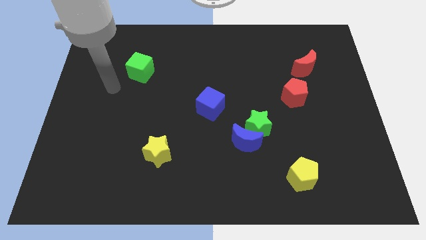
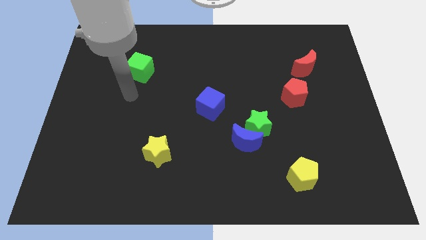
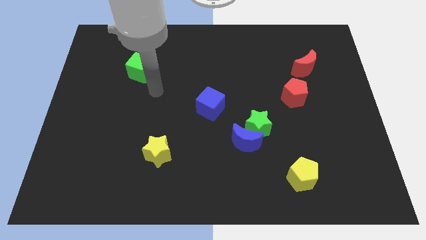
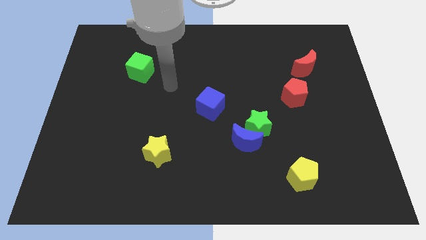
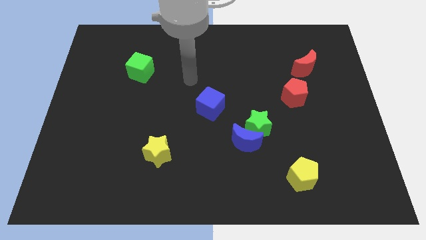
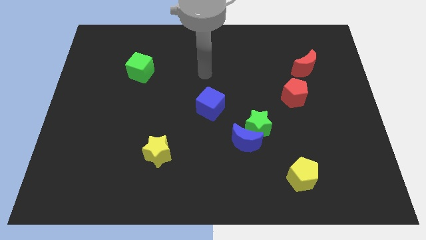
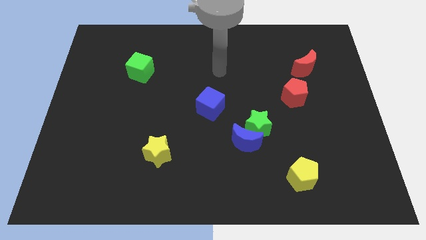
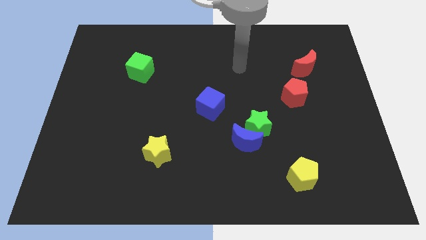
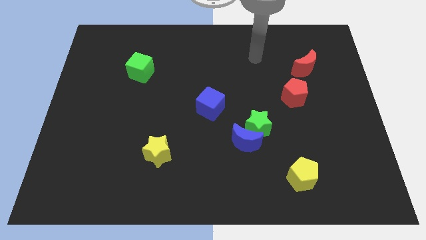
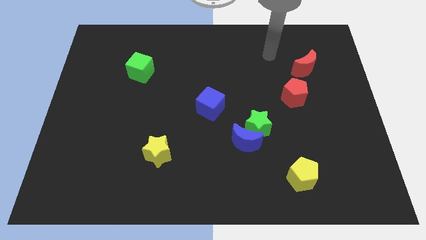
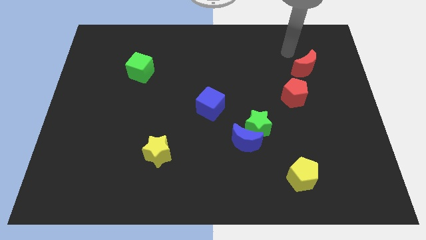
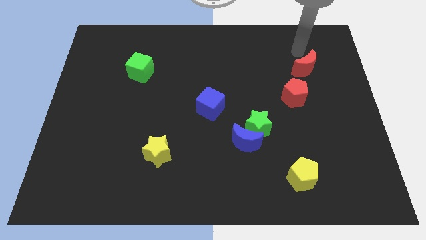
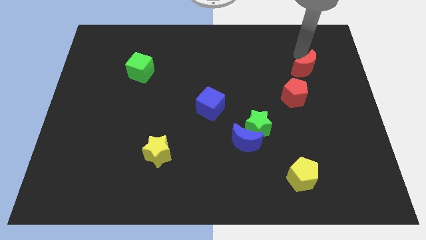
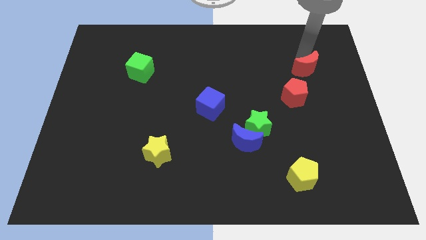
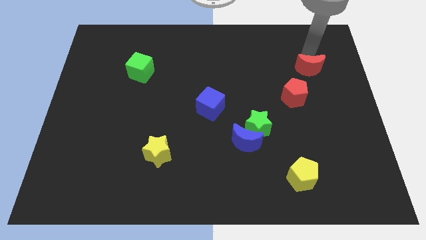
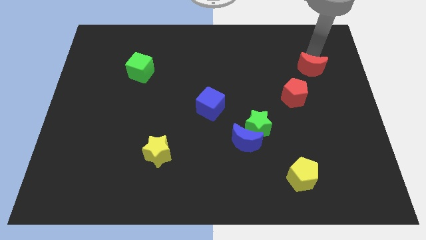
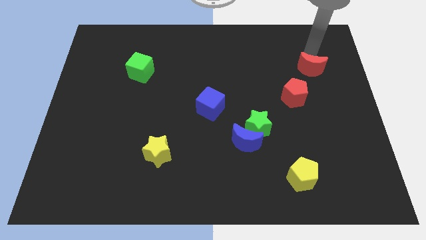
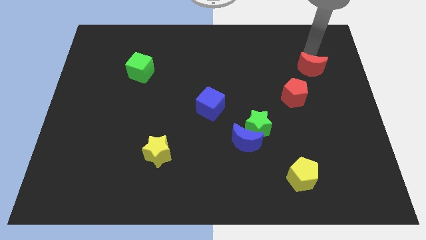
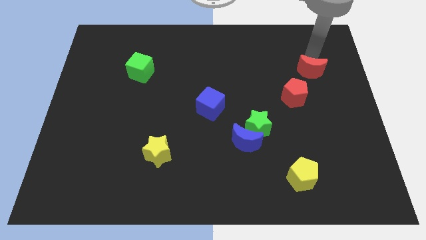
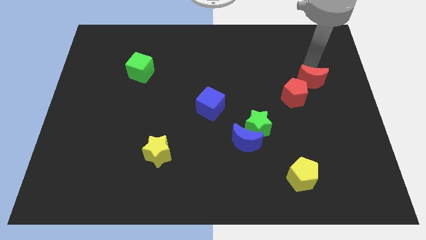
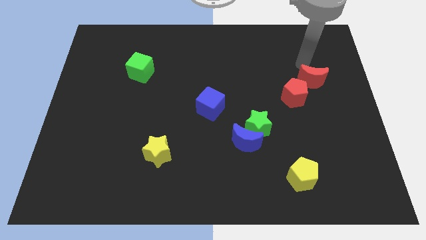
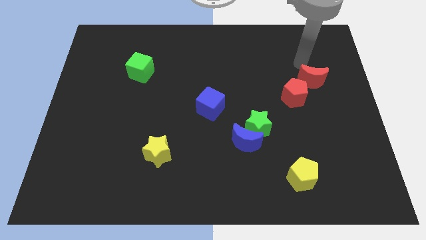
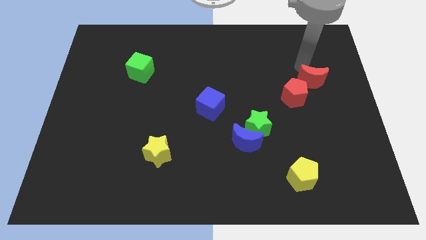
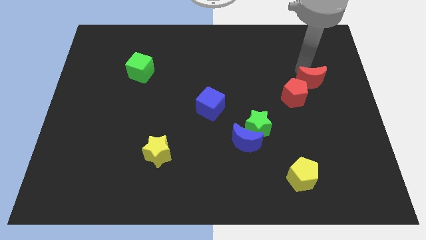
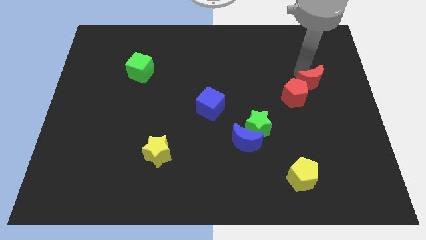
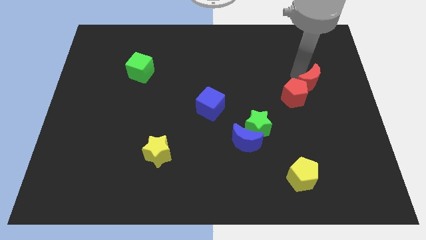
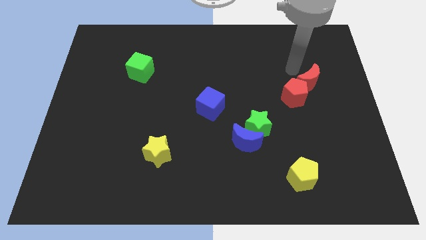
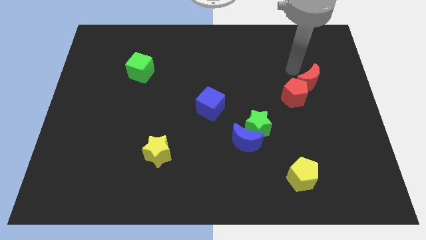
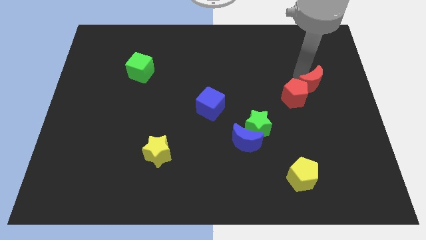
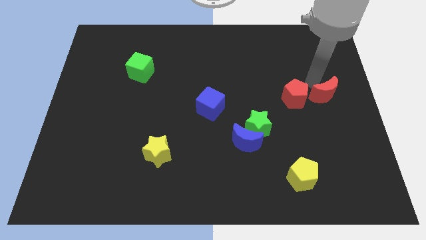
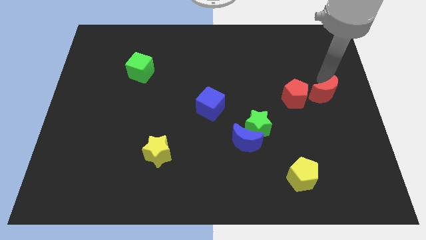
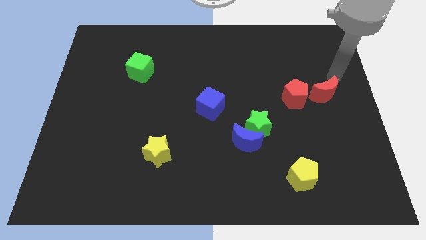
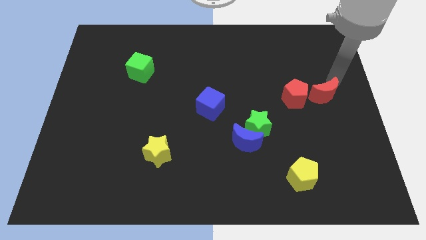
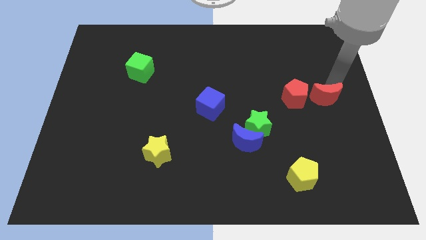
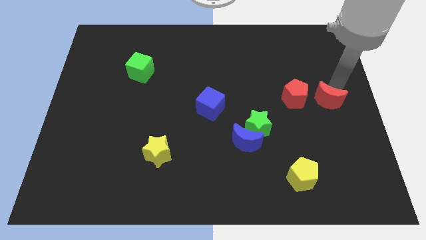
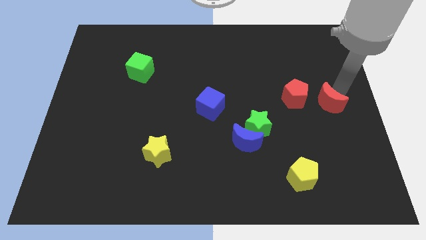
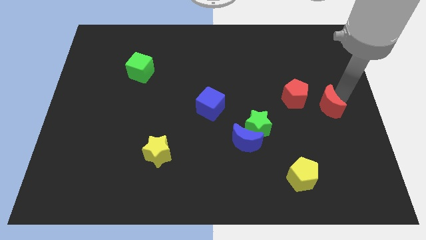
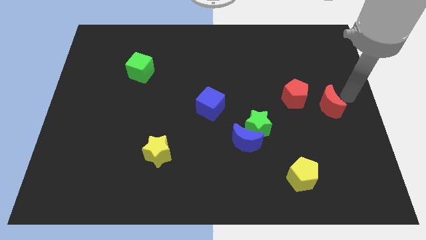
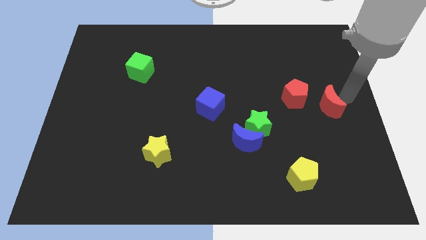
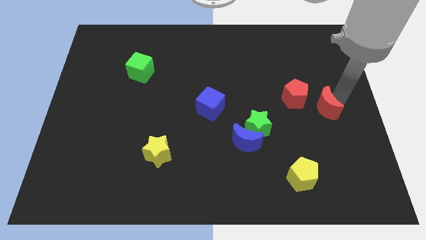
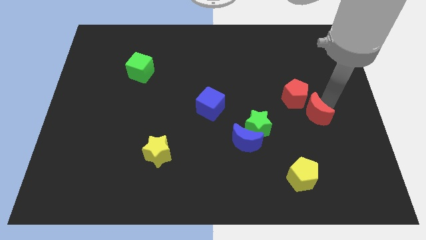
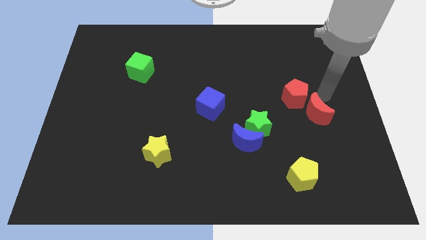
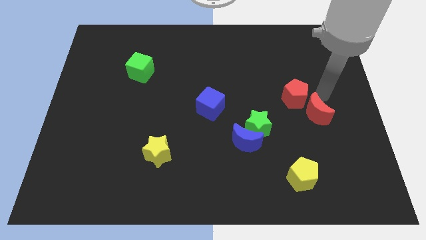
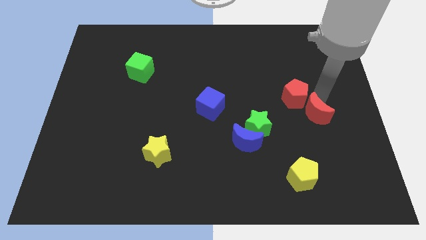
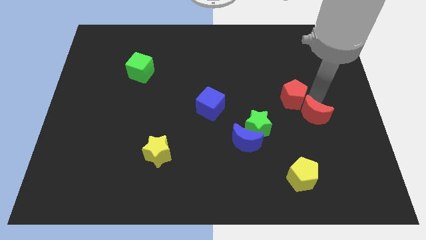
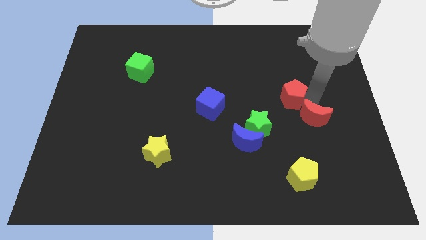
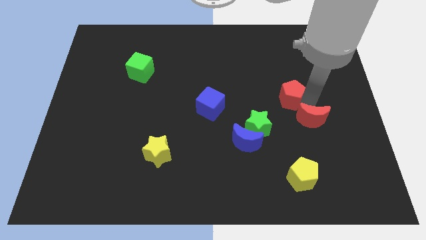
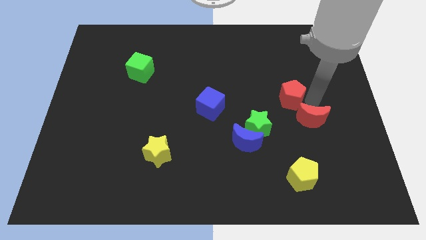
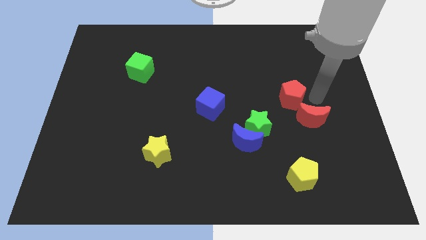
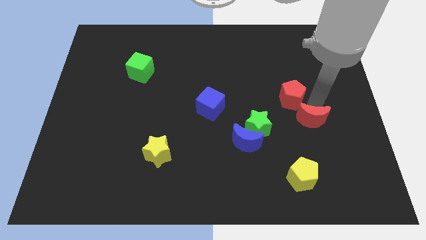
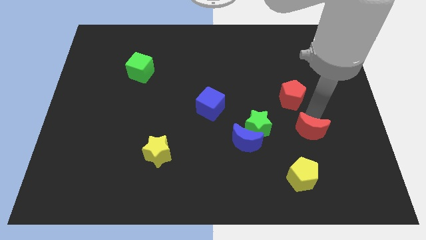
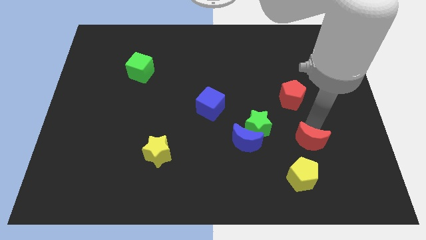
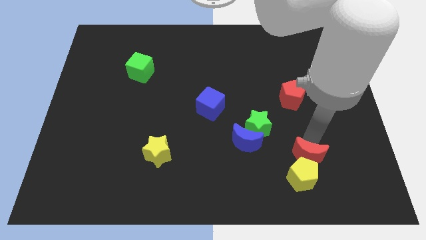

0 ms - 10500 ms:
put the red moon towards the yellow pentagon

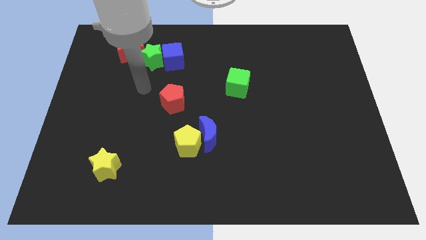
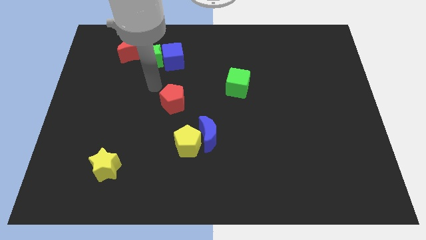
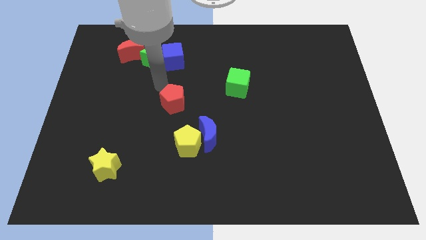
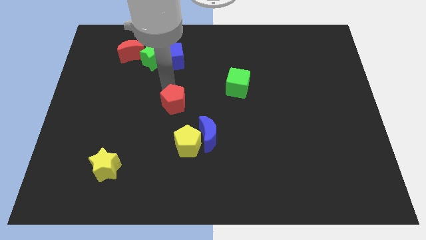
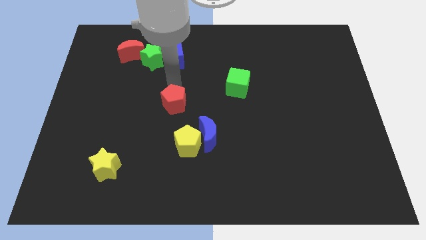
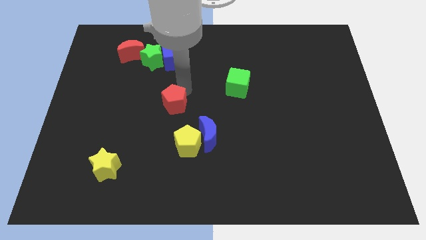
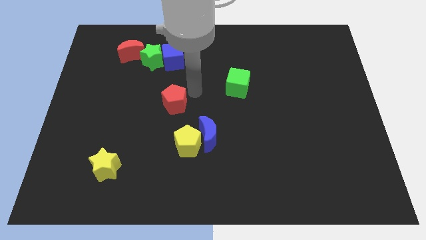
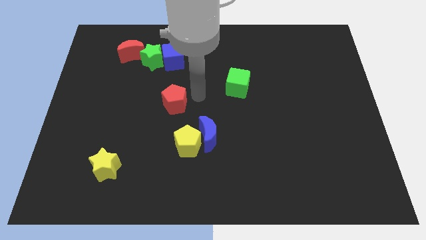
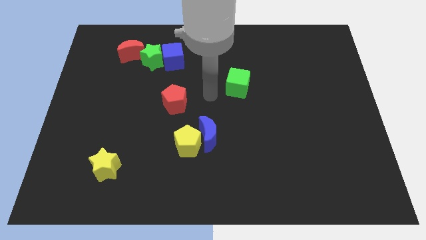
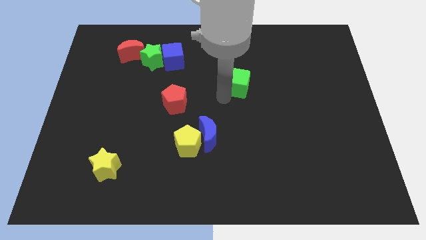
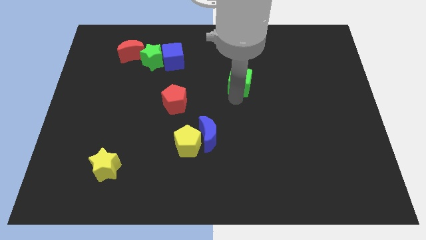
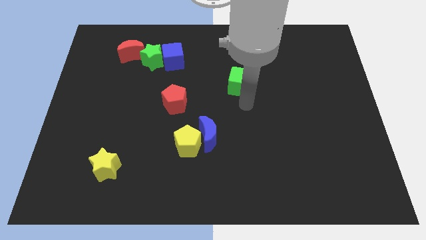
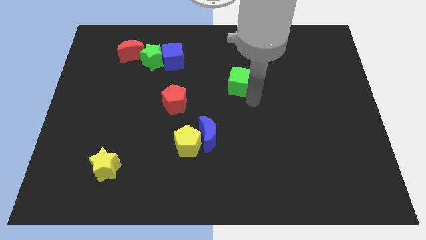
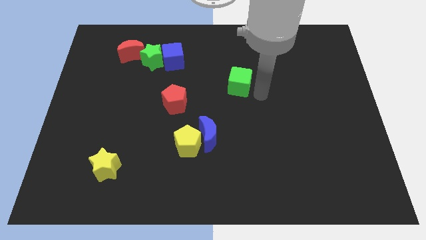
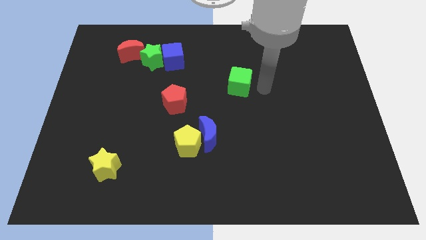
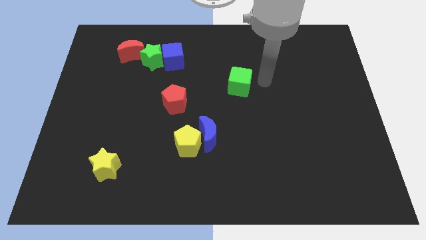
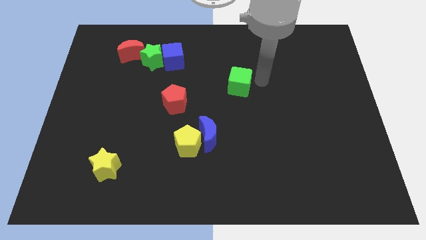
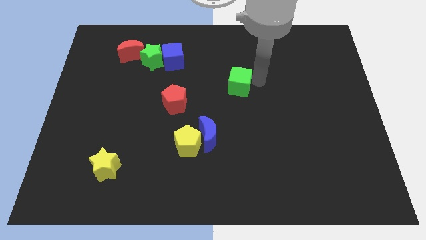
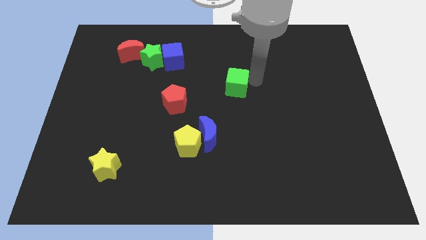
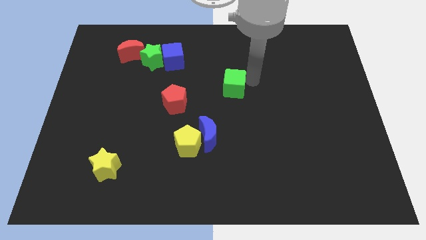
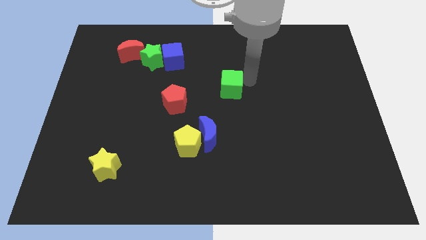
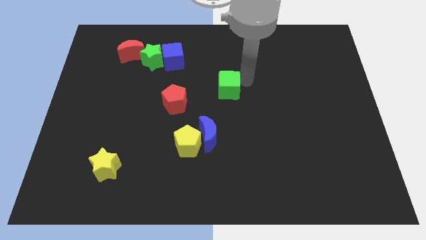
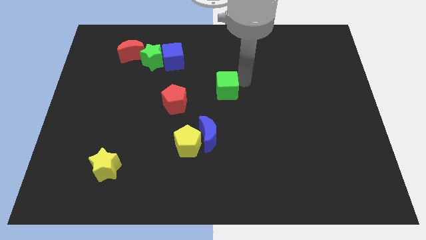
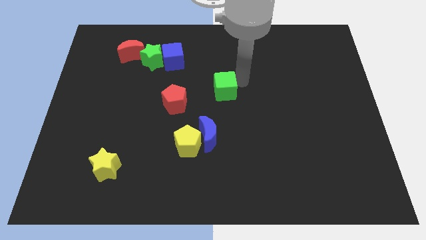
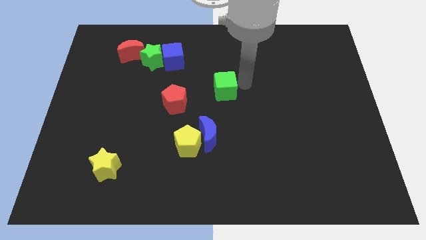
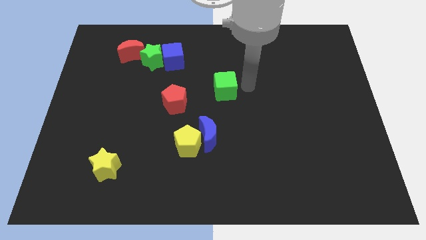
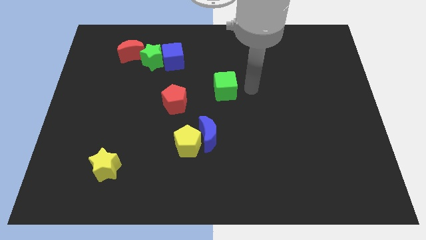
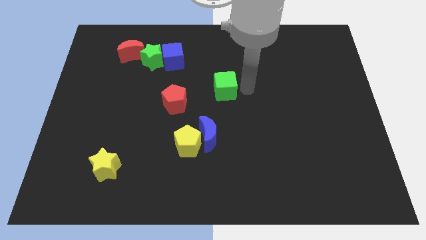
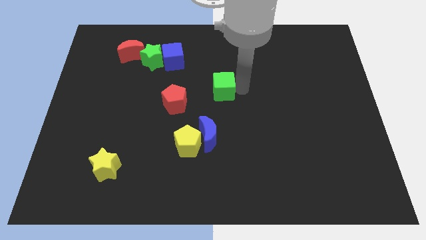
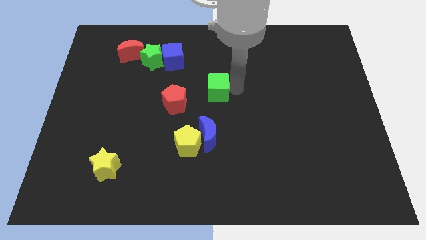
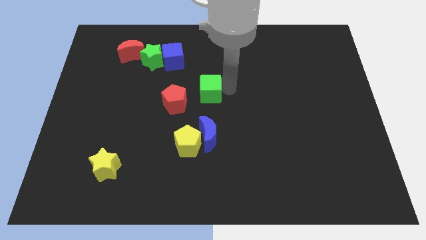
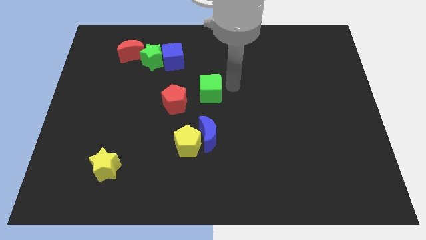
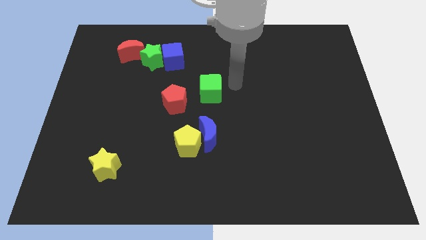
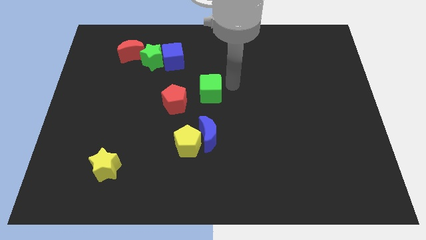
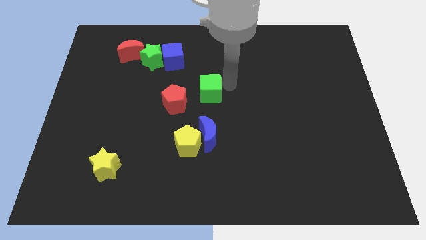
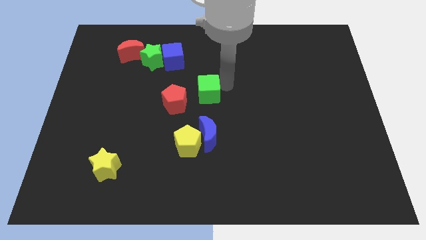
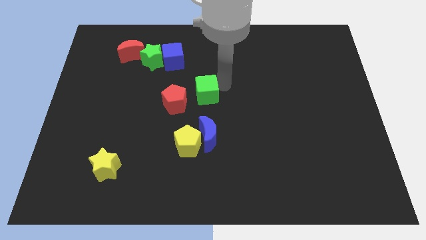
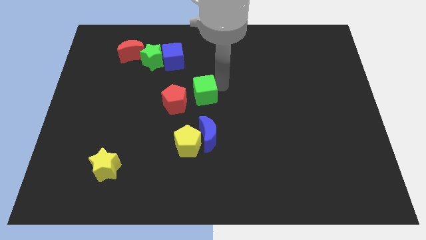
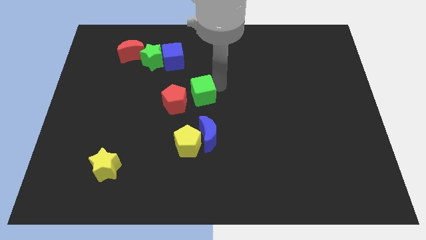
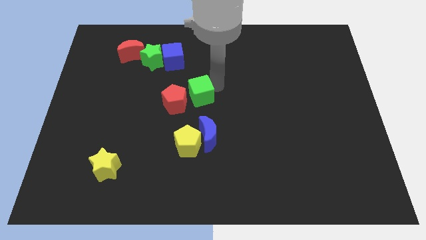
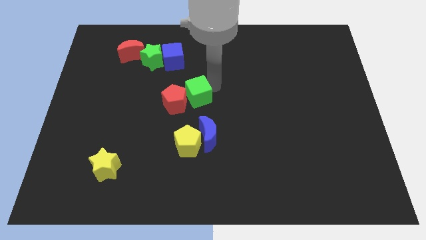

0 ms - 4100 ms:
put the green cube close to the red pentagon
